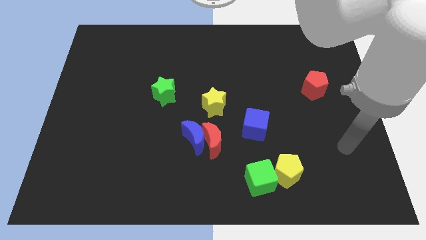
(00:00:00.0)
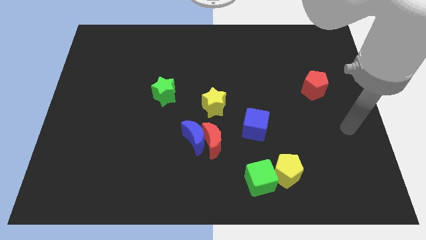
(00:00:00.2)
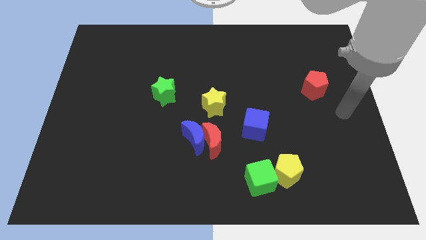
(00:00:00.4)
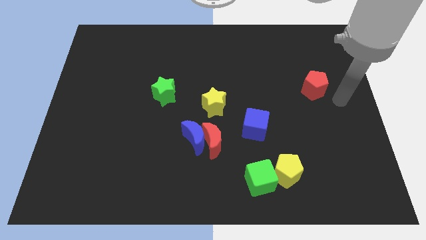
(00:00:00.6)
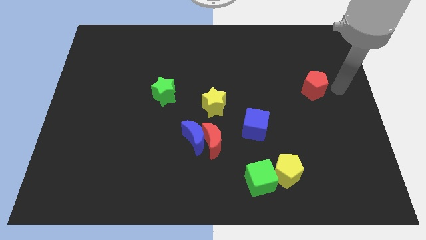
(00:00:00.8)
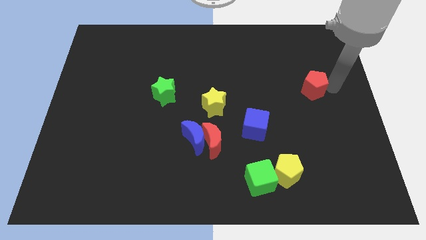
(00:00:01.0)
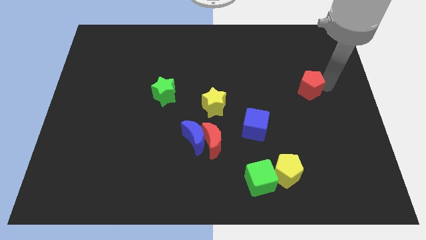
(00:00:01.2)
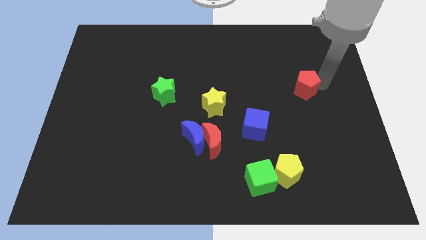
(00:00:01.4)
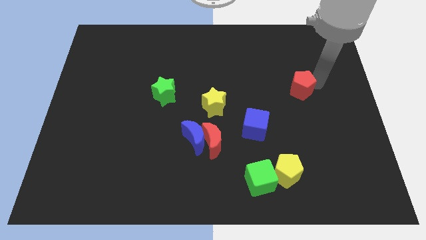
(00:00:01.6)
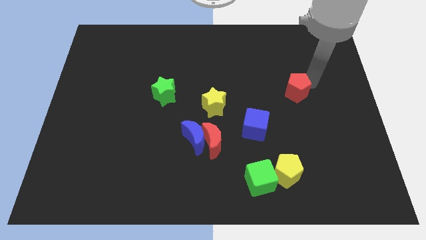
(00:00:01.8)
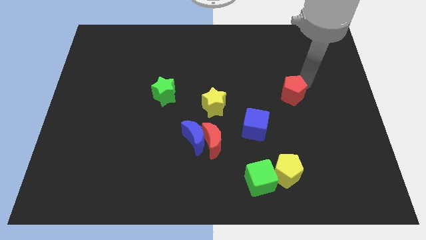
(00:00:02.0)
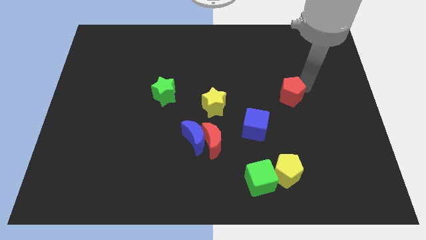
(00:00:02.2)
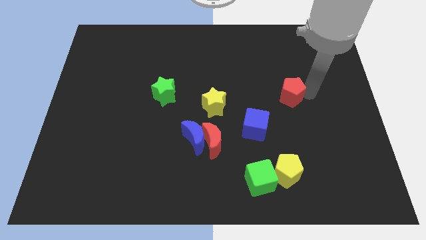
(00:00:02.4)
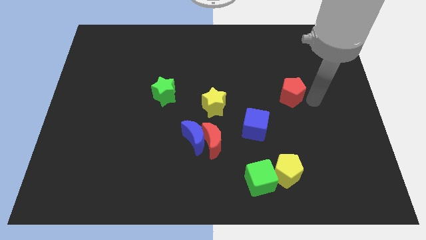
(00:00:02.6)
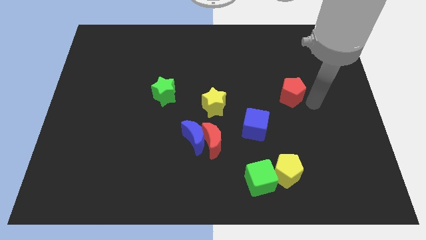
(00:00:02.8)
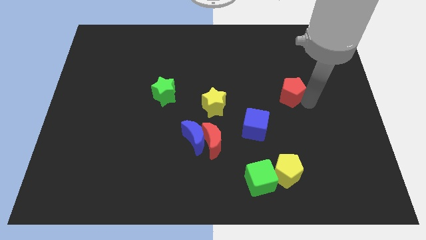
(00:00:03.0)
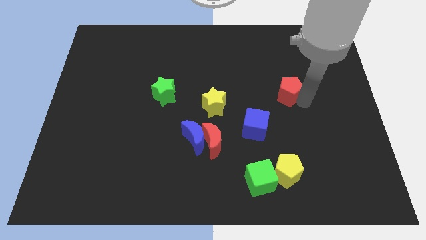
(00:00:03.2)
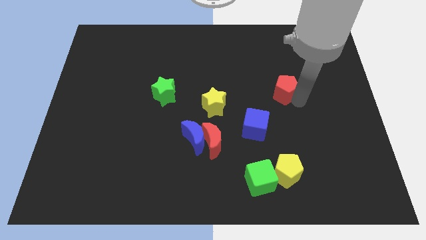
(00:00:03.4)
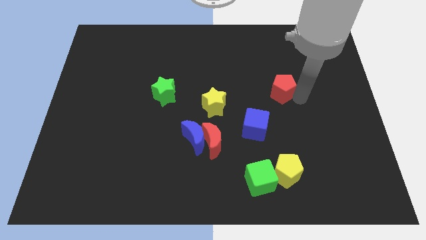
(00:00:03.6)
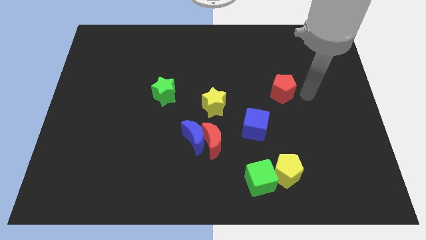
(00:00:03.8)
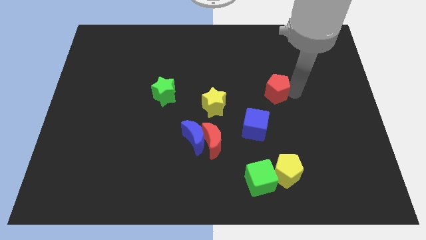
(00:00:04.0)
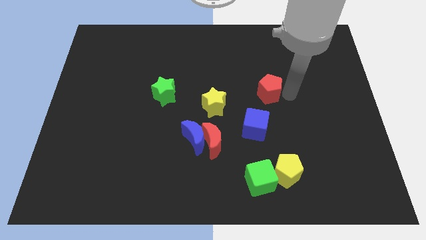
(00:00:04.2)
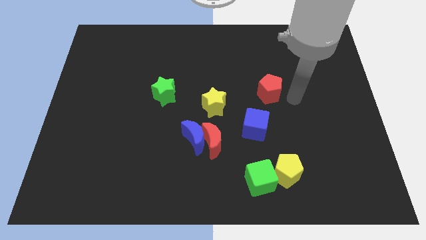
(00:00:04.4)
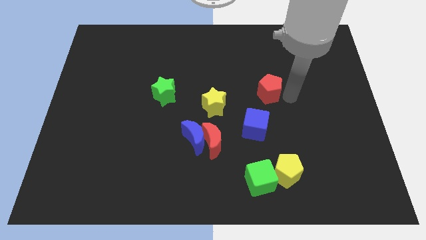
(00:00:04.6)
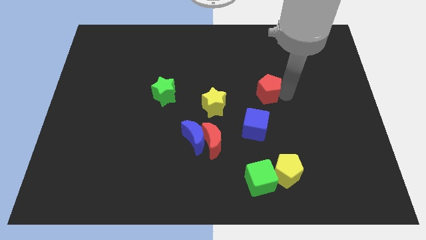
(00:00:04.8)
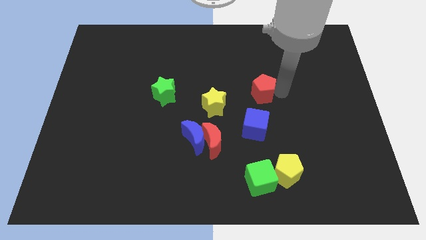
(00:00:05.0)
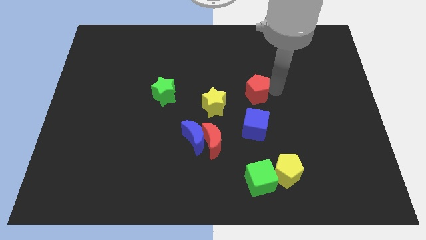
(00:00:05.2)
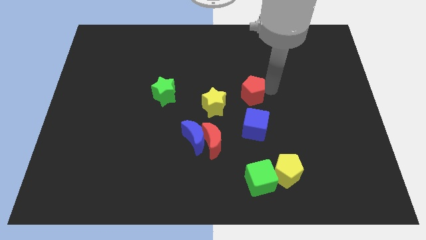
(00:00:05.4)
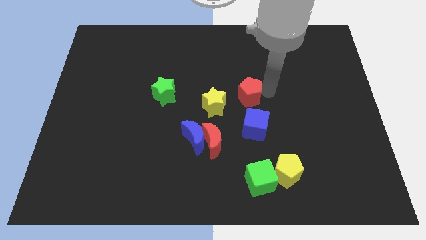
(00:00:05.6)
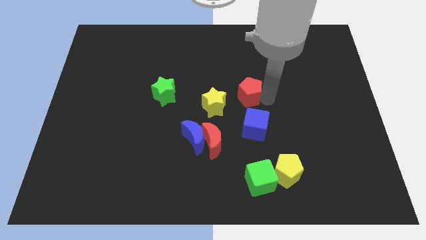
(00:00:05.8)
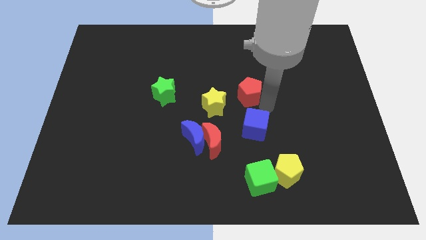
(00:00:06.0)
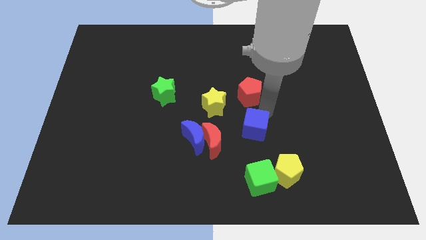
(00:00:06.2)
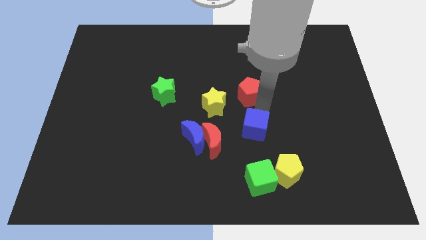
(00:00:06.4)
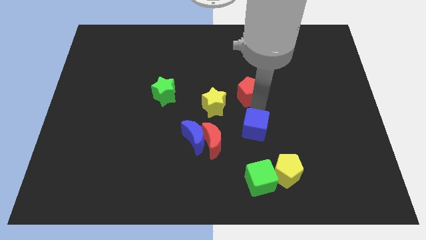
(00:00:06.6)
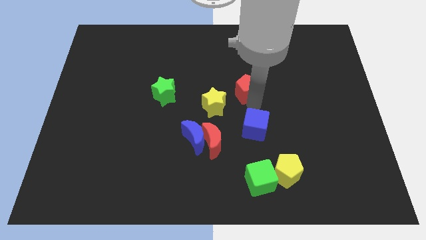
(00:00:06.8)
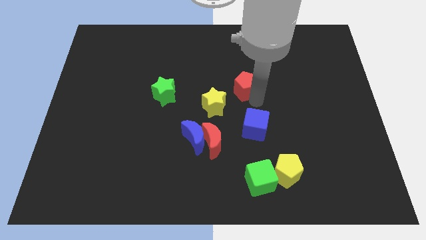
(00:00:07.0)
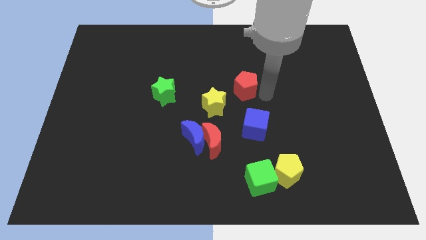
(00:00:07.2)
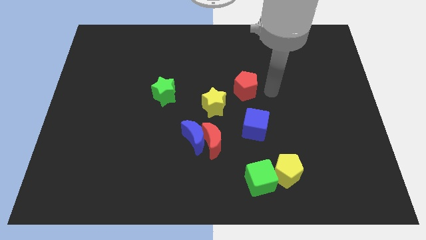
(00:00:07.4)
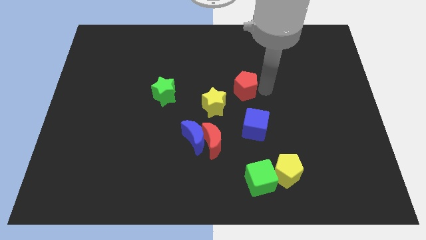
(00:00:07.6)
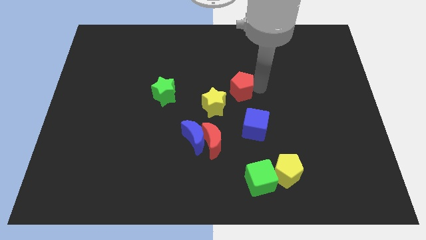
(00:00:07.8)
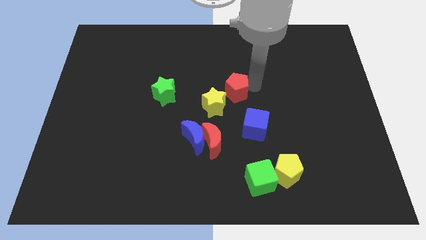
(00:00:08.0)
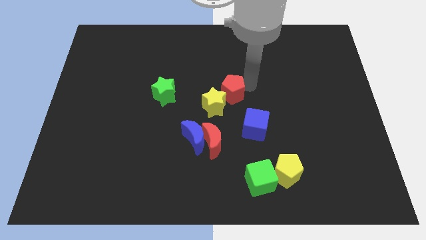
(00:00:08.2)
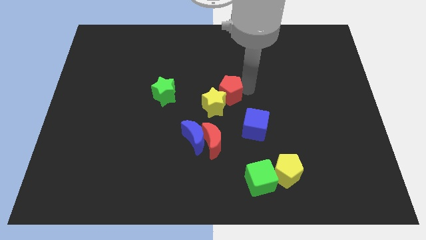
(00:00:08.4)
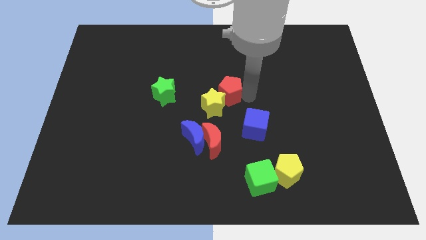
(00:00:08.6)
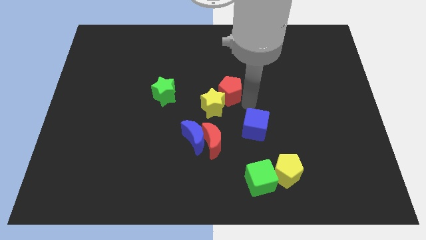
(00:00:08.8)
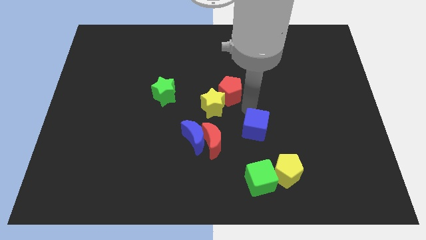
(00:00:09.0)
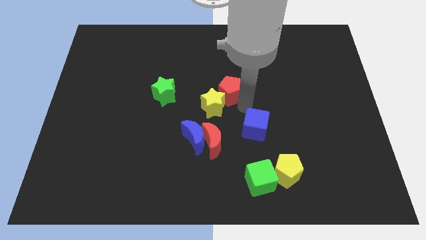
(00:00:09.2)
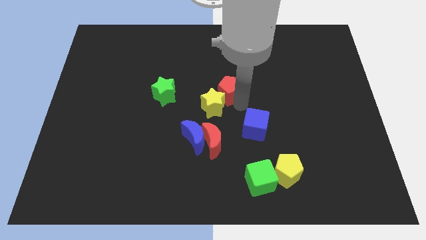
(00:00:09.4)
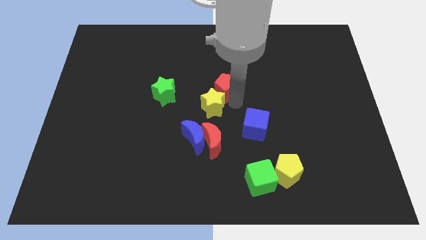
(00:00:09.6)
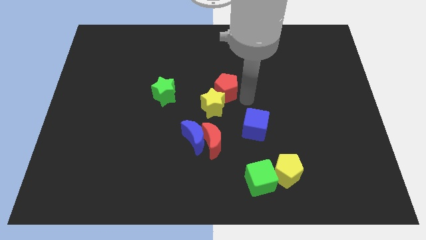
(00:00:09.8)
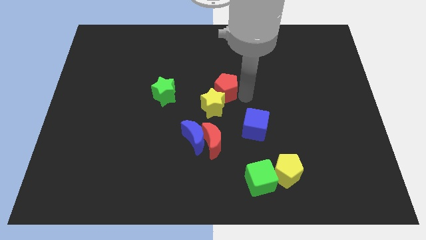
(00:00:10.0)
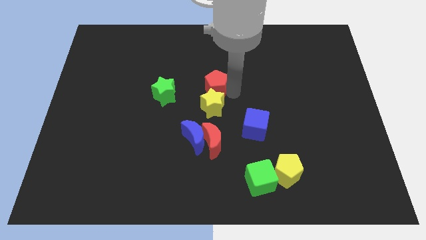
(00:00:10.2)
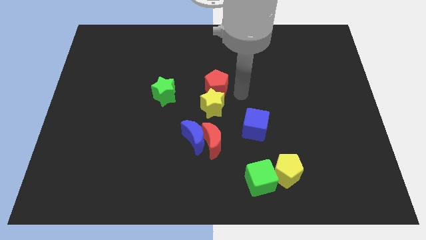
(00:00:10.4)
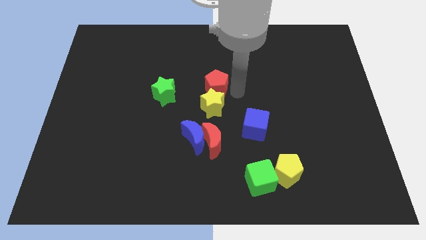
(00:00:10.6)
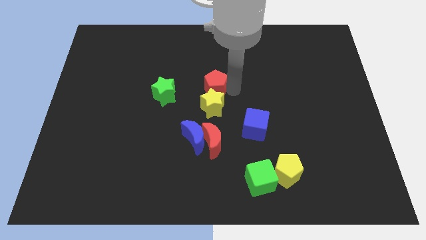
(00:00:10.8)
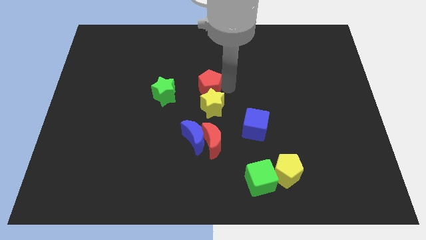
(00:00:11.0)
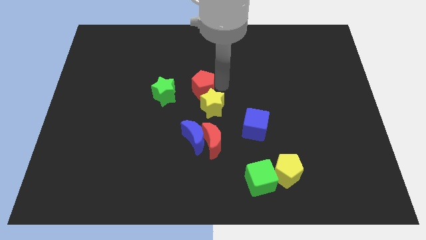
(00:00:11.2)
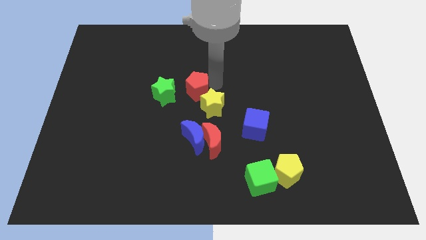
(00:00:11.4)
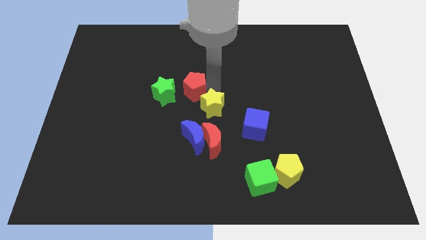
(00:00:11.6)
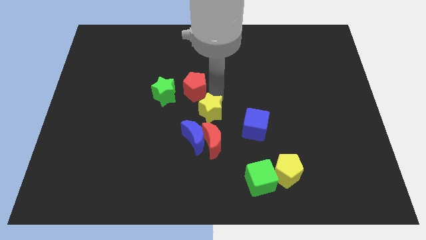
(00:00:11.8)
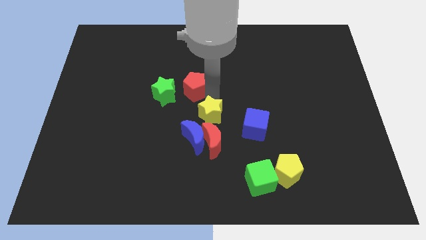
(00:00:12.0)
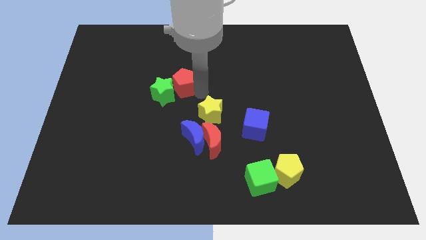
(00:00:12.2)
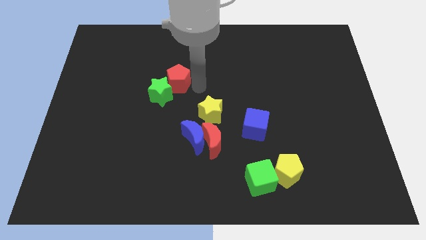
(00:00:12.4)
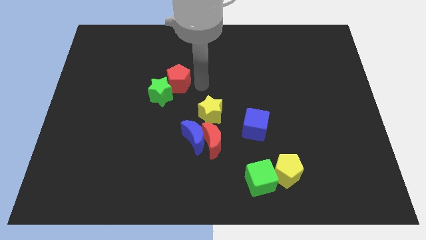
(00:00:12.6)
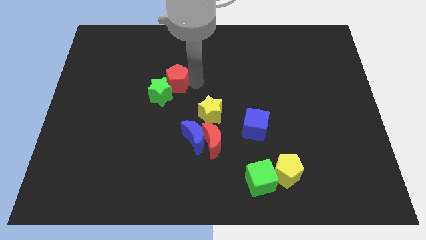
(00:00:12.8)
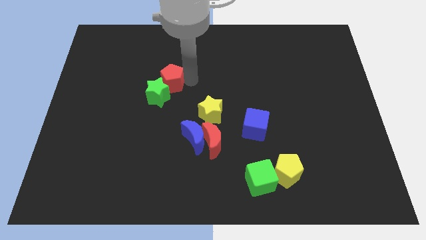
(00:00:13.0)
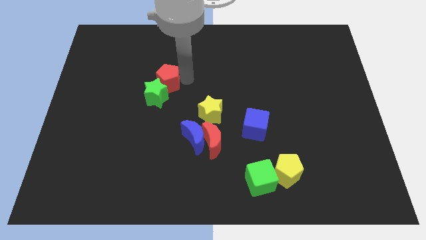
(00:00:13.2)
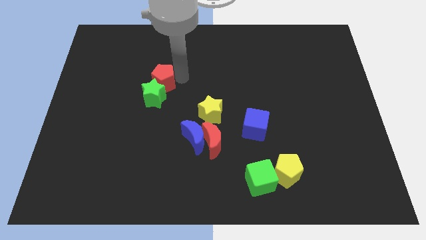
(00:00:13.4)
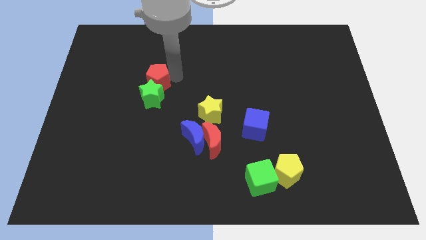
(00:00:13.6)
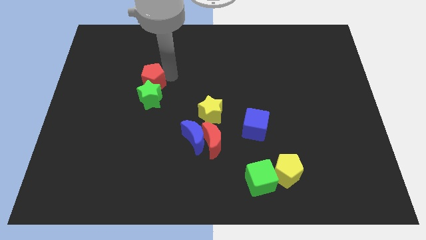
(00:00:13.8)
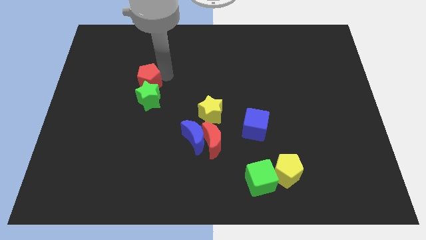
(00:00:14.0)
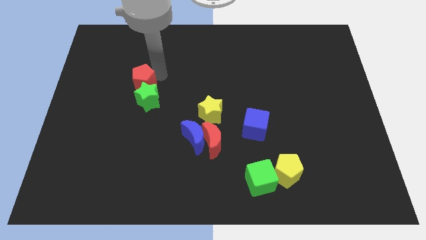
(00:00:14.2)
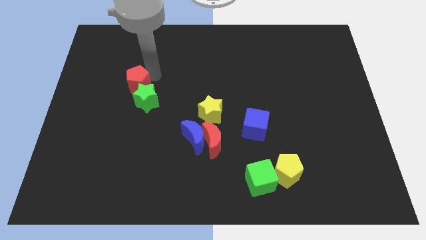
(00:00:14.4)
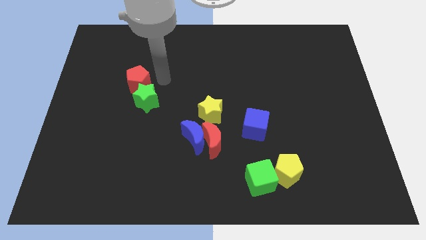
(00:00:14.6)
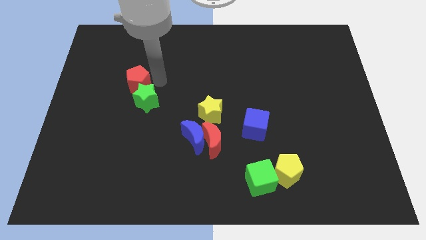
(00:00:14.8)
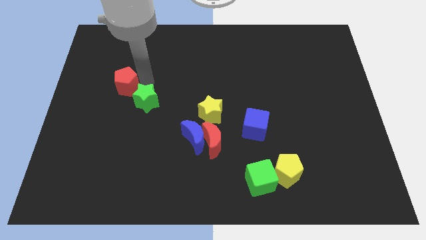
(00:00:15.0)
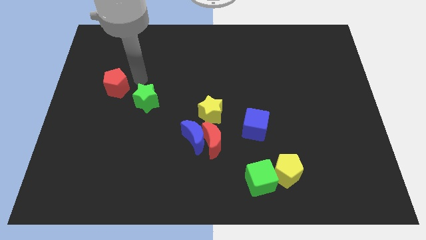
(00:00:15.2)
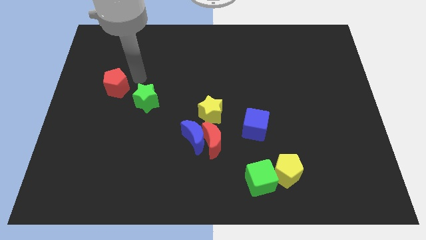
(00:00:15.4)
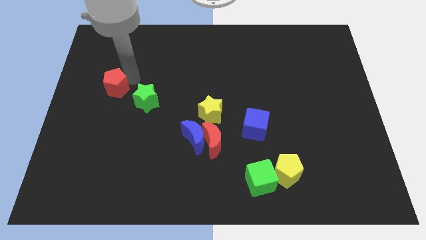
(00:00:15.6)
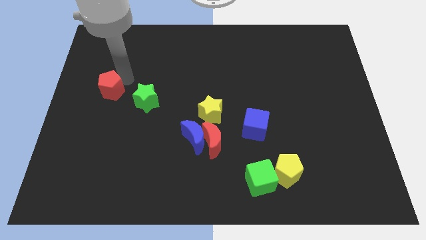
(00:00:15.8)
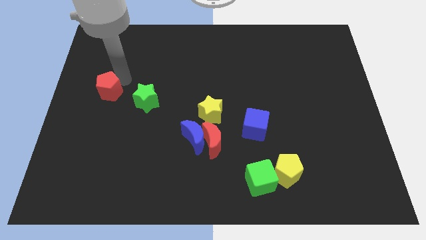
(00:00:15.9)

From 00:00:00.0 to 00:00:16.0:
slide the red pentagon to the left side
